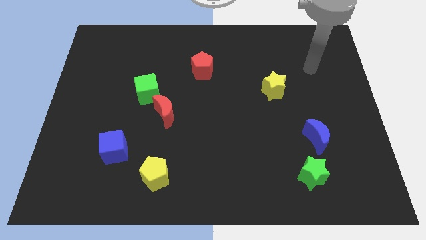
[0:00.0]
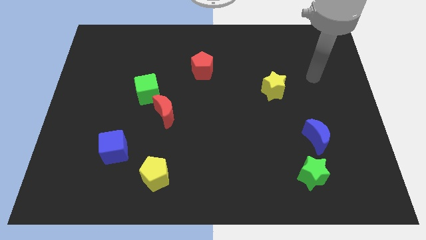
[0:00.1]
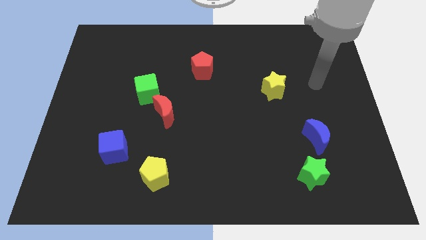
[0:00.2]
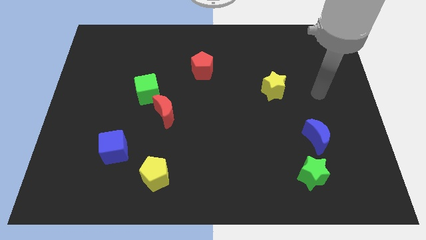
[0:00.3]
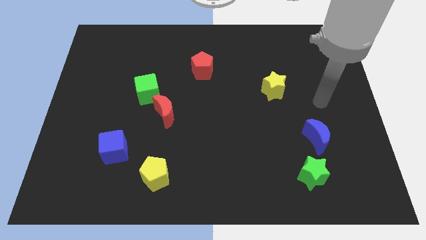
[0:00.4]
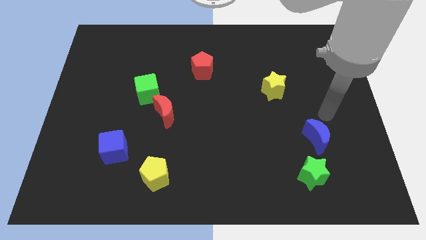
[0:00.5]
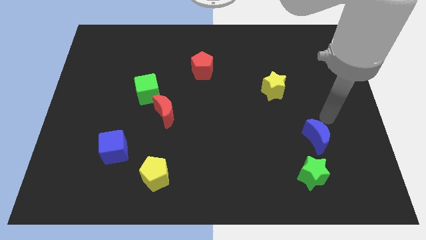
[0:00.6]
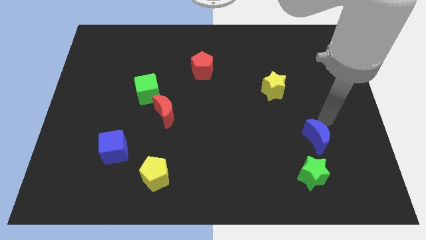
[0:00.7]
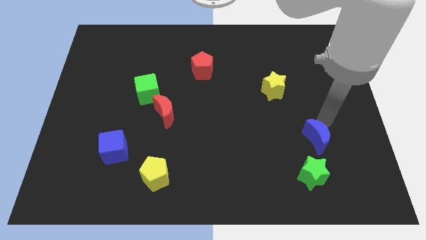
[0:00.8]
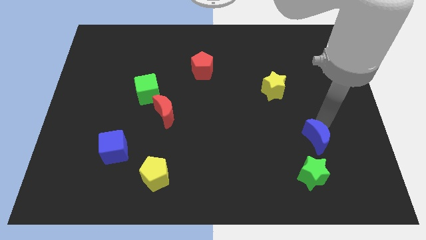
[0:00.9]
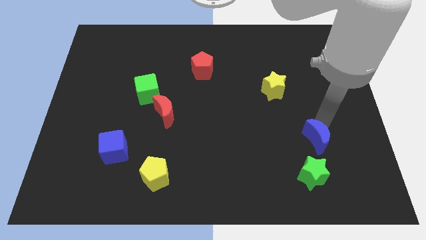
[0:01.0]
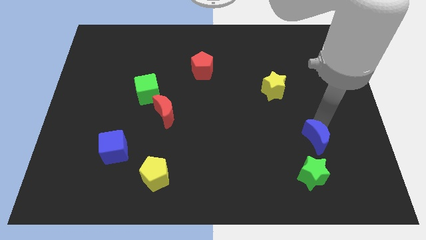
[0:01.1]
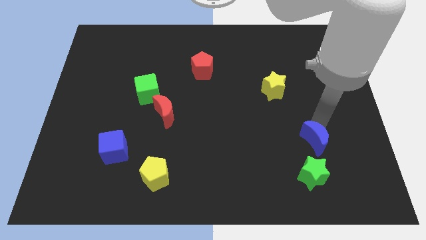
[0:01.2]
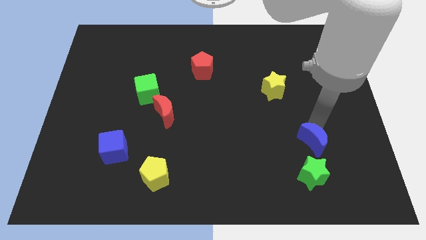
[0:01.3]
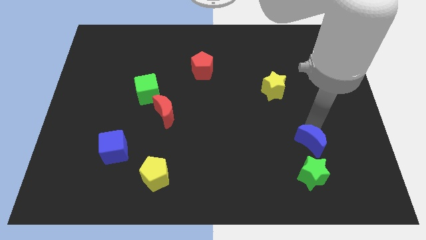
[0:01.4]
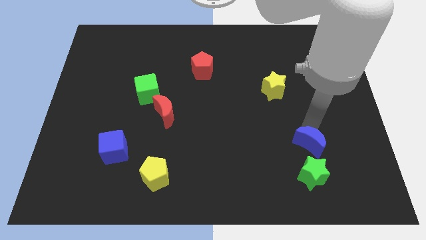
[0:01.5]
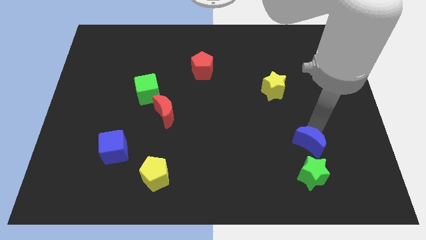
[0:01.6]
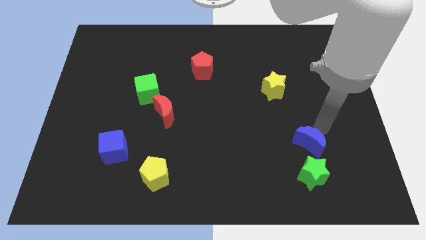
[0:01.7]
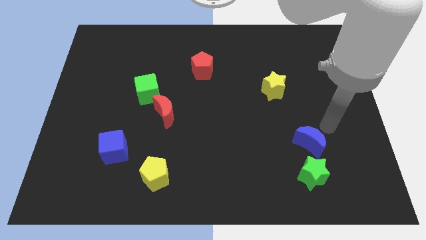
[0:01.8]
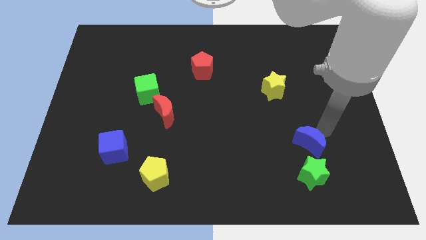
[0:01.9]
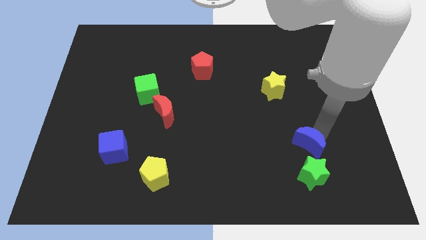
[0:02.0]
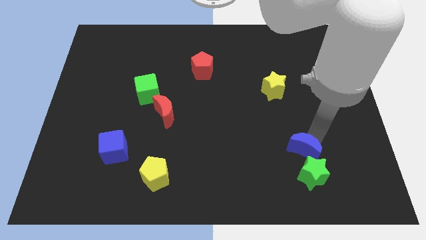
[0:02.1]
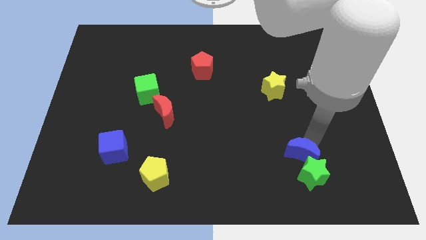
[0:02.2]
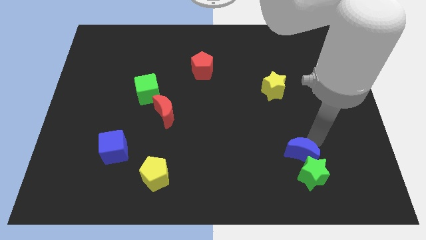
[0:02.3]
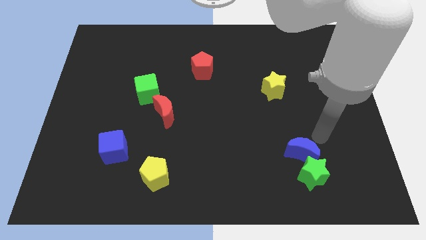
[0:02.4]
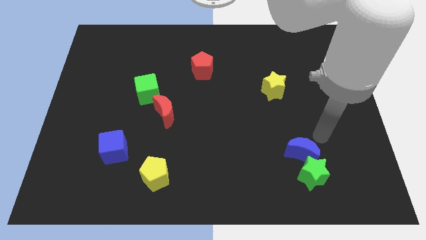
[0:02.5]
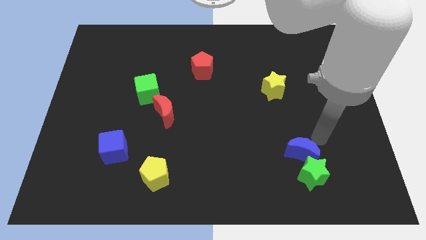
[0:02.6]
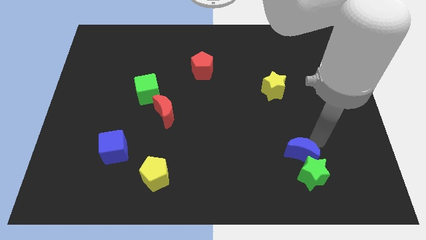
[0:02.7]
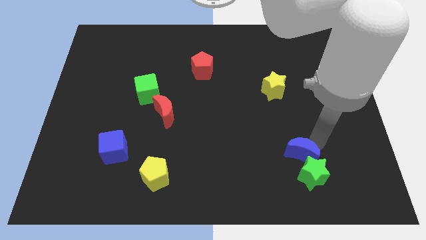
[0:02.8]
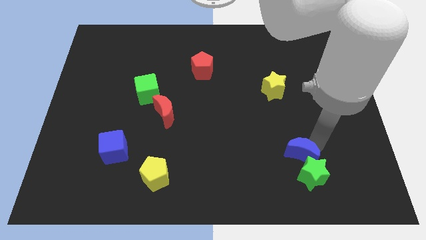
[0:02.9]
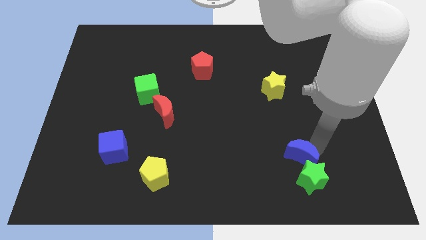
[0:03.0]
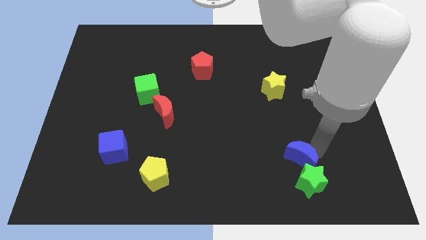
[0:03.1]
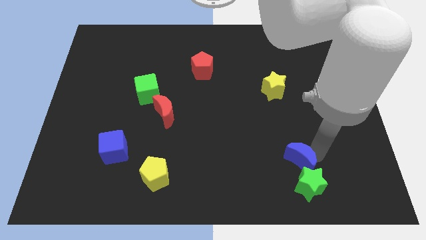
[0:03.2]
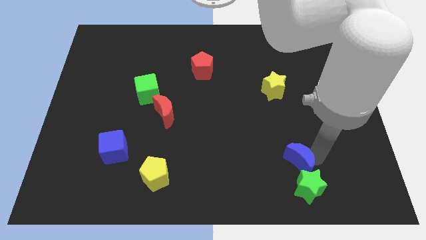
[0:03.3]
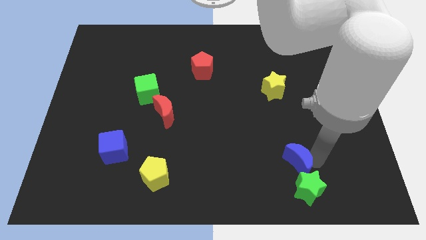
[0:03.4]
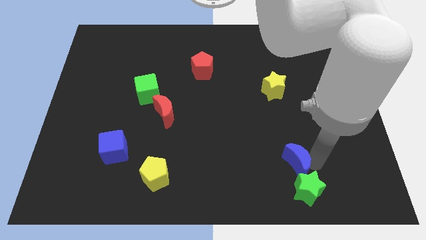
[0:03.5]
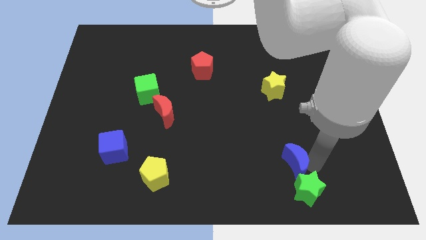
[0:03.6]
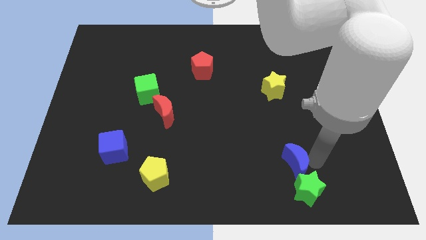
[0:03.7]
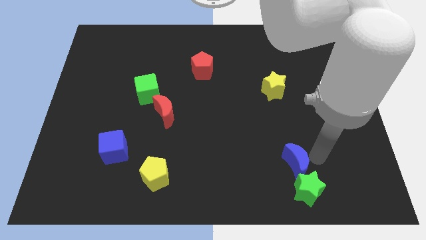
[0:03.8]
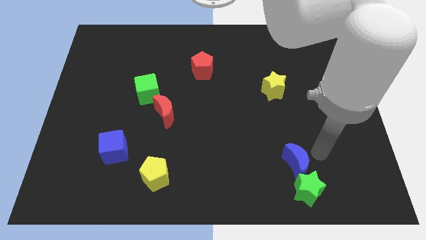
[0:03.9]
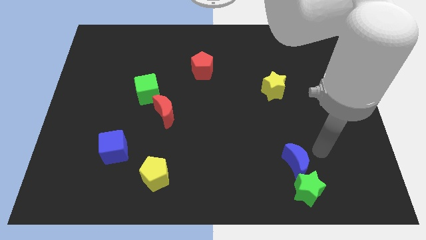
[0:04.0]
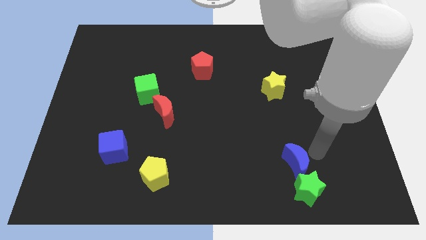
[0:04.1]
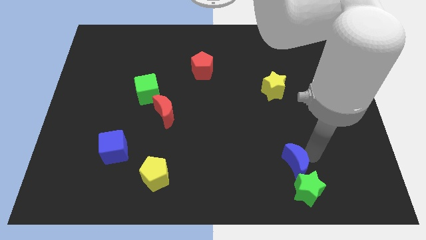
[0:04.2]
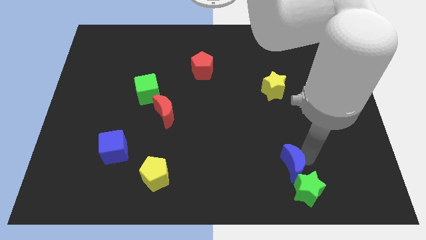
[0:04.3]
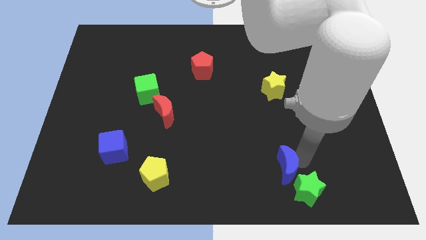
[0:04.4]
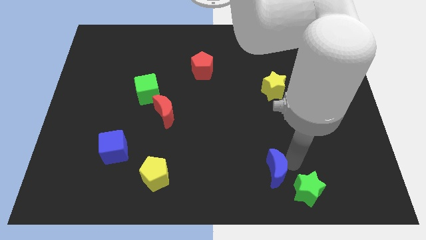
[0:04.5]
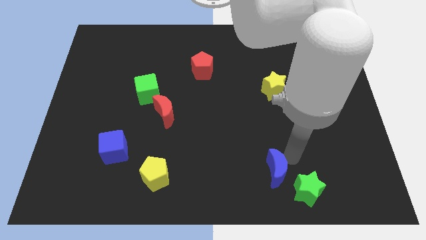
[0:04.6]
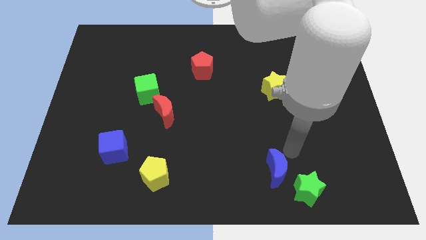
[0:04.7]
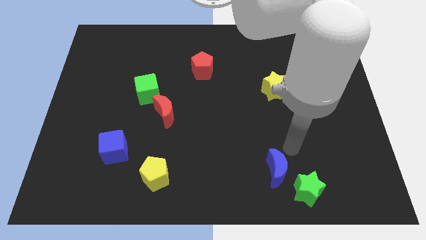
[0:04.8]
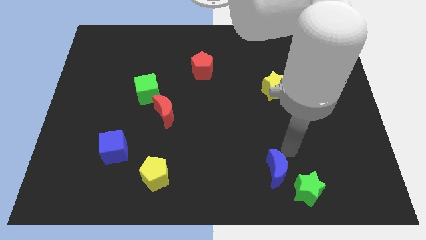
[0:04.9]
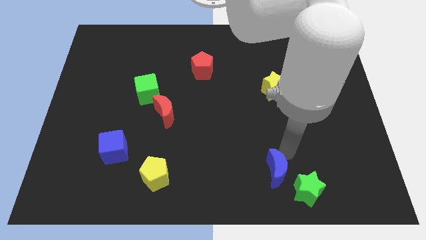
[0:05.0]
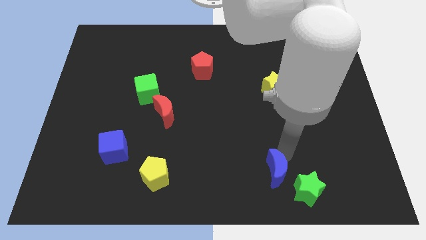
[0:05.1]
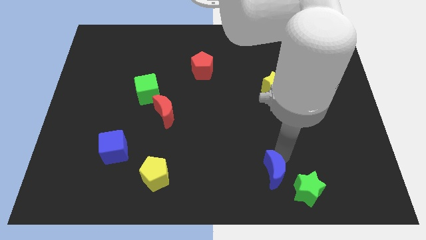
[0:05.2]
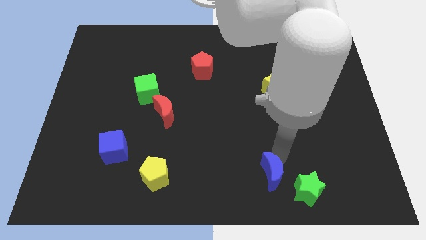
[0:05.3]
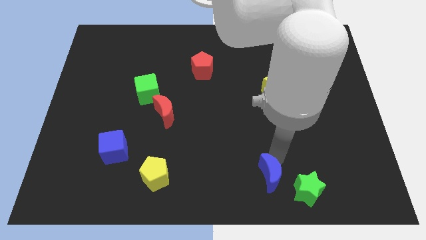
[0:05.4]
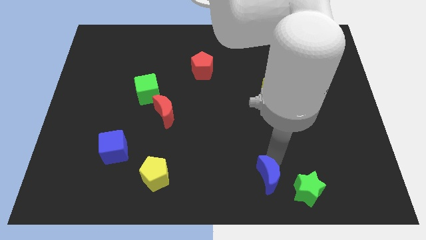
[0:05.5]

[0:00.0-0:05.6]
move the blue moon to the bottom side

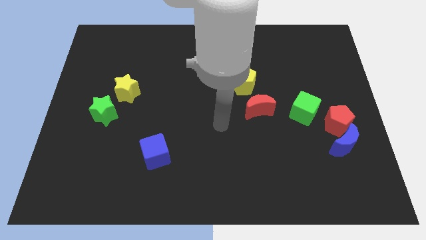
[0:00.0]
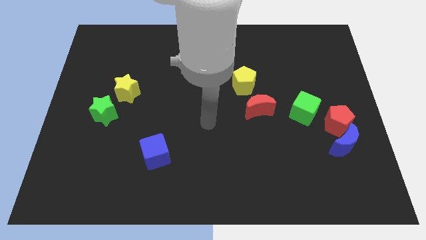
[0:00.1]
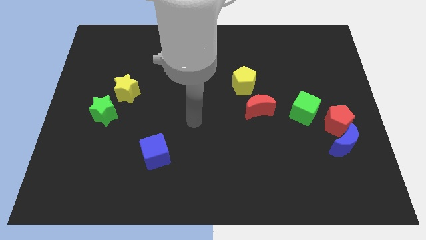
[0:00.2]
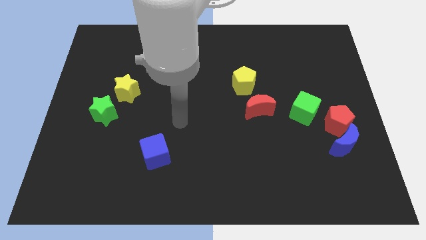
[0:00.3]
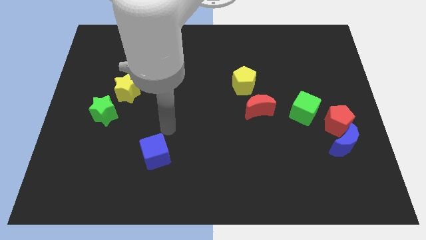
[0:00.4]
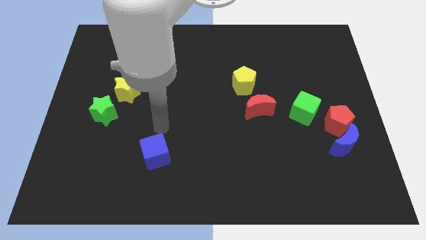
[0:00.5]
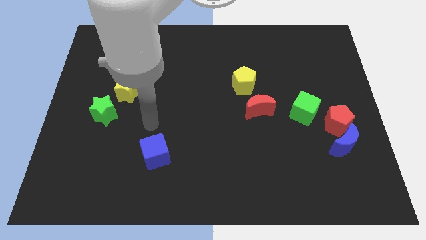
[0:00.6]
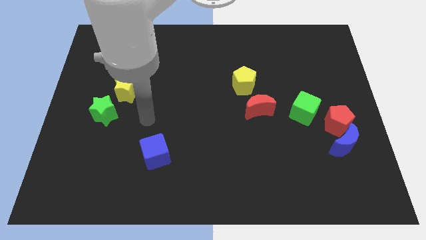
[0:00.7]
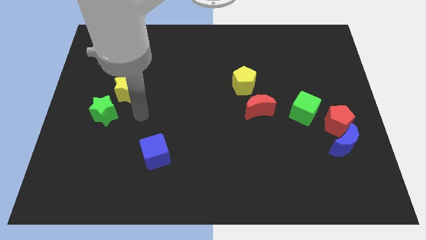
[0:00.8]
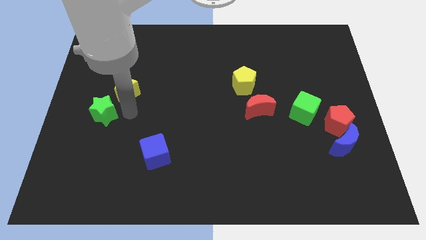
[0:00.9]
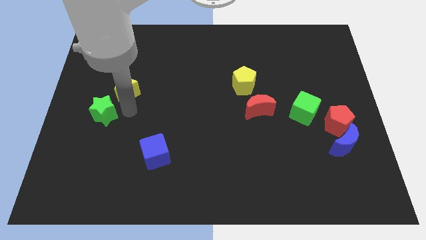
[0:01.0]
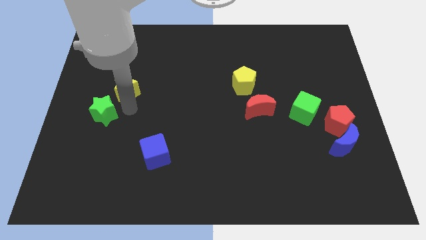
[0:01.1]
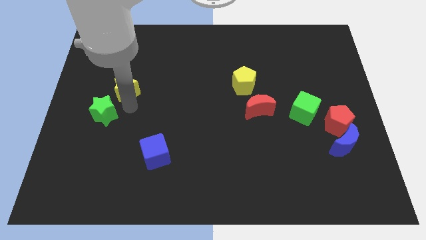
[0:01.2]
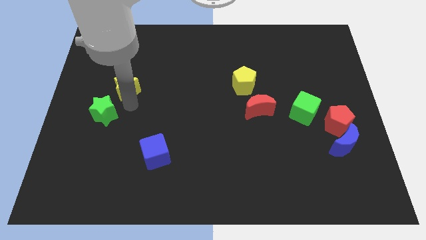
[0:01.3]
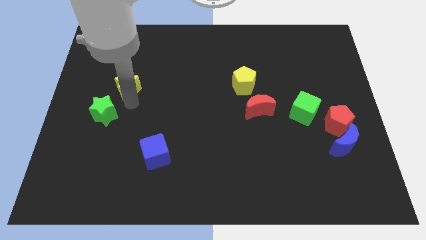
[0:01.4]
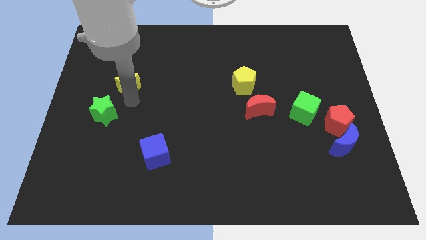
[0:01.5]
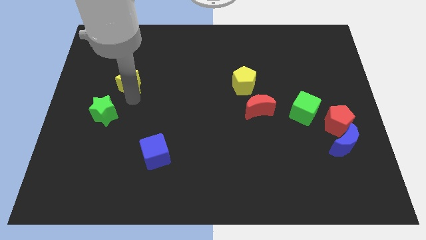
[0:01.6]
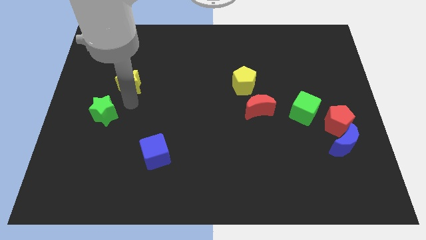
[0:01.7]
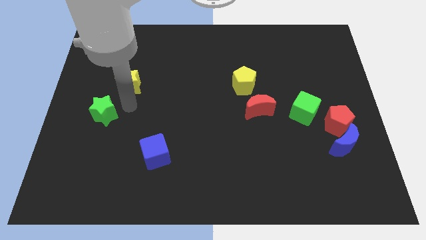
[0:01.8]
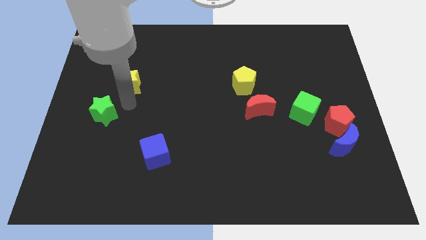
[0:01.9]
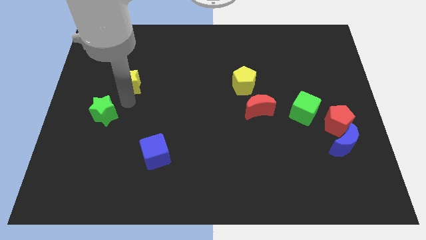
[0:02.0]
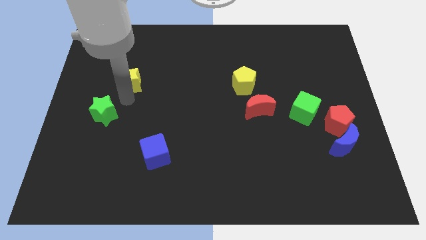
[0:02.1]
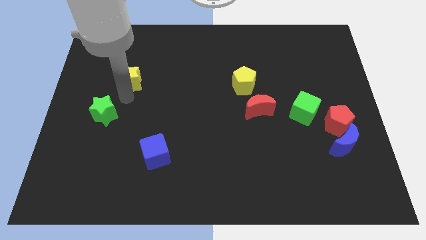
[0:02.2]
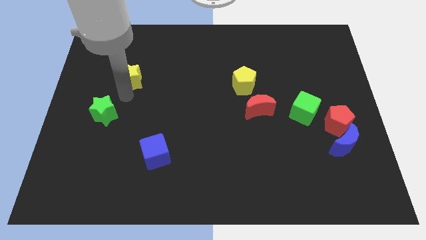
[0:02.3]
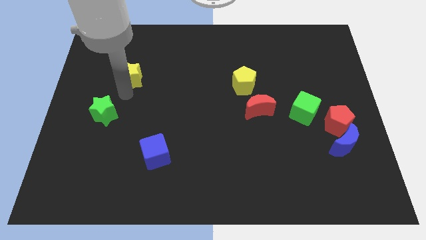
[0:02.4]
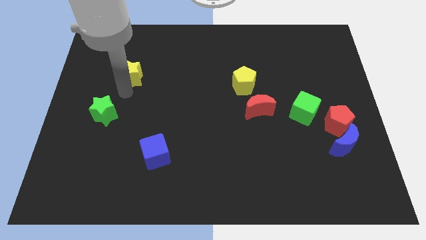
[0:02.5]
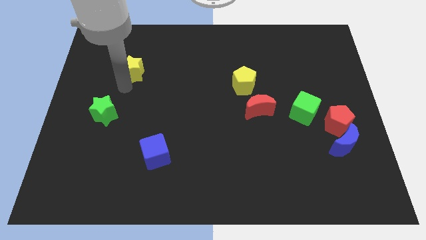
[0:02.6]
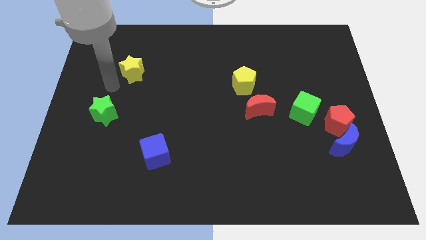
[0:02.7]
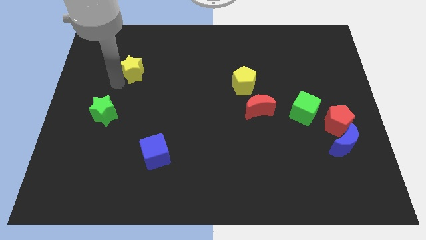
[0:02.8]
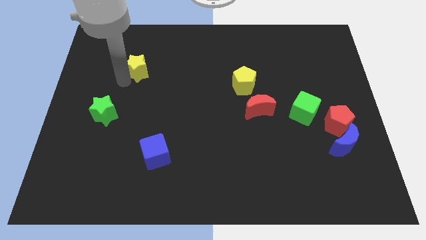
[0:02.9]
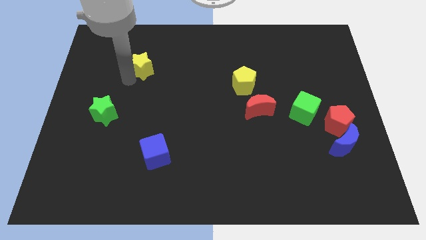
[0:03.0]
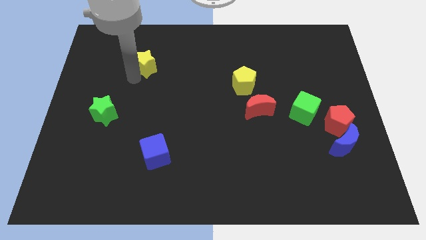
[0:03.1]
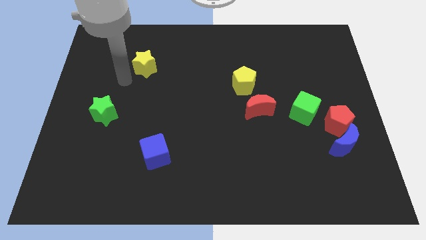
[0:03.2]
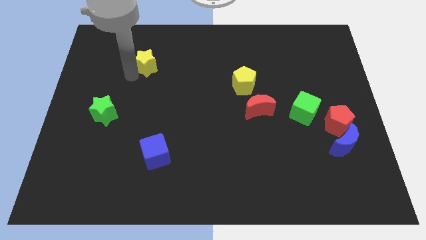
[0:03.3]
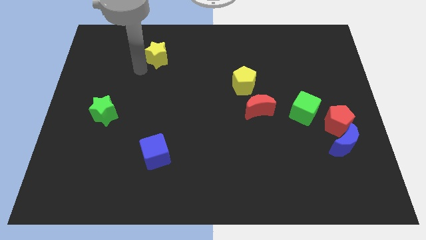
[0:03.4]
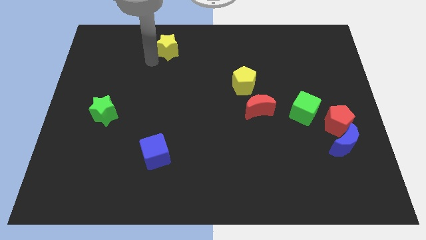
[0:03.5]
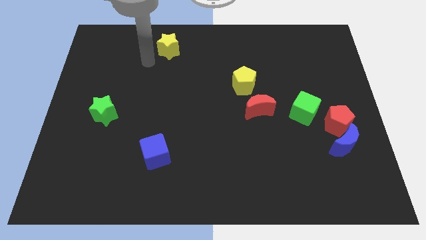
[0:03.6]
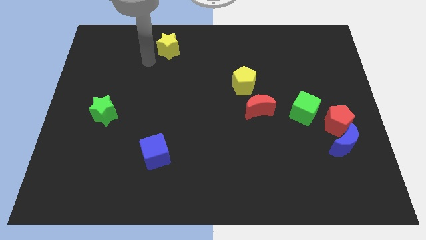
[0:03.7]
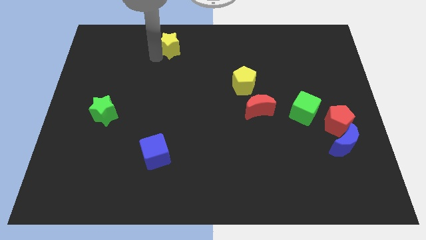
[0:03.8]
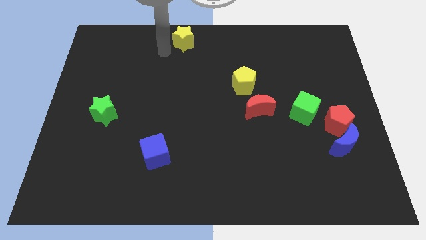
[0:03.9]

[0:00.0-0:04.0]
move the yellow star to the towards your base
